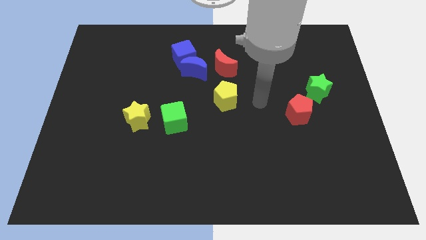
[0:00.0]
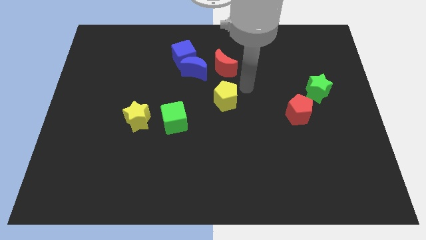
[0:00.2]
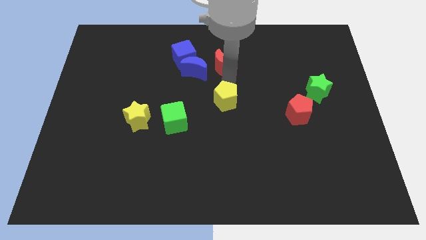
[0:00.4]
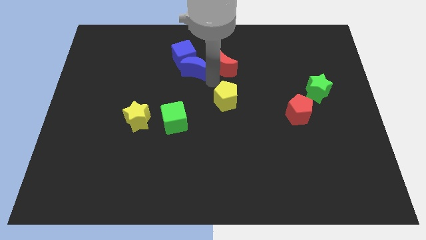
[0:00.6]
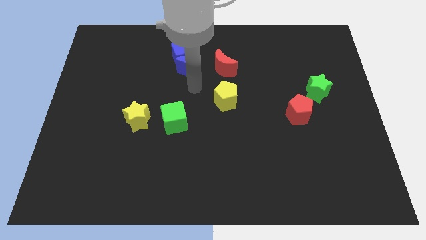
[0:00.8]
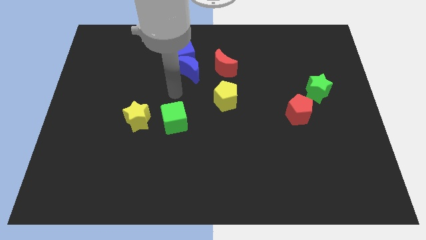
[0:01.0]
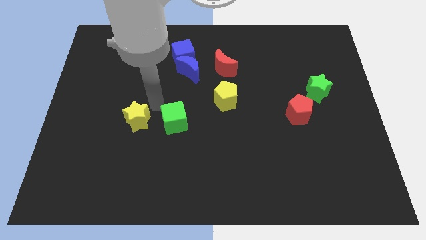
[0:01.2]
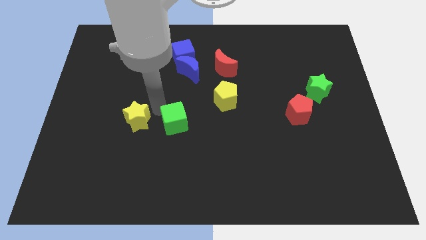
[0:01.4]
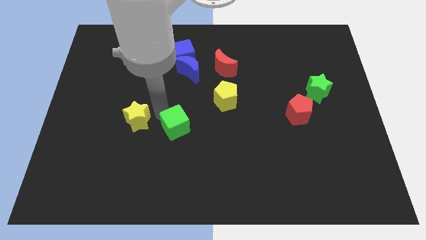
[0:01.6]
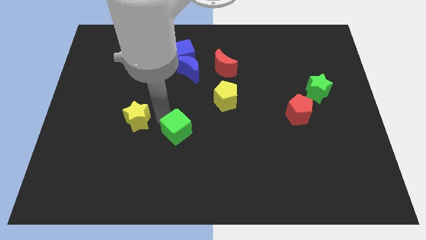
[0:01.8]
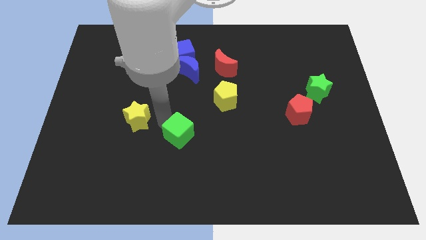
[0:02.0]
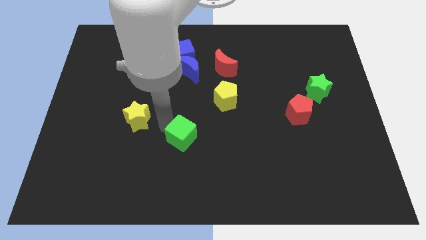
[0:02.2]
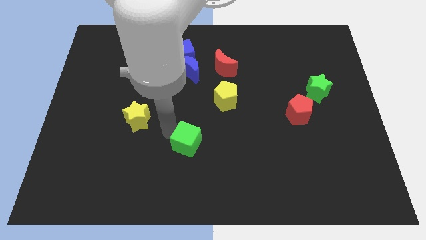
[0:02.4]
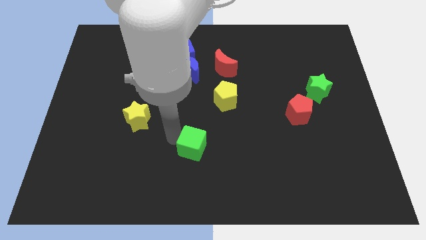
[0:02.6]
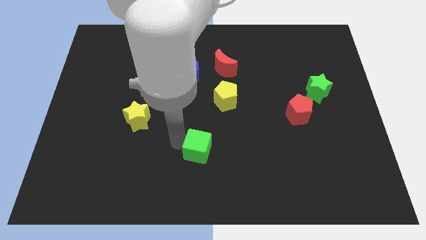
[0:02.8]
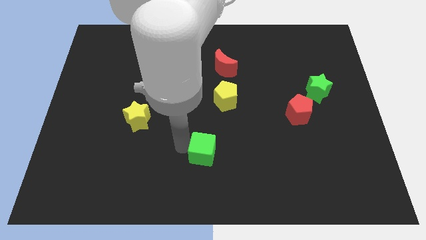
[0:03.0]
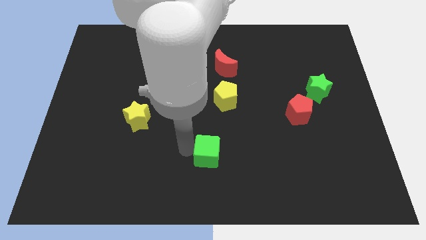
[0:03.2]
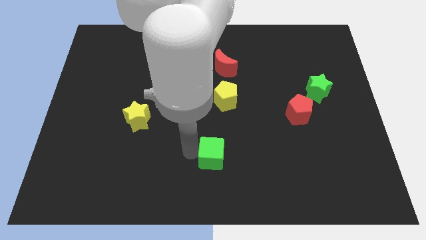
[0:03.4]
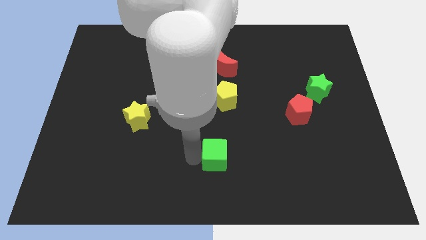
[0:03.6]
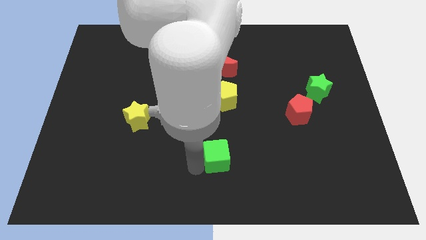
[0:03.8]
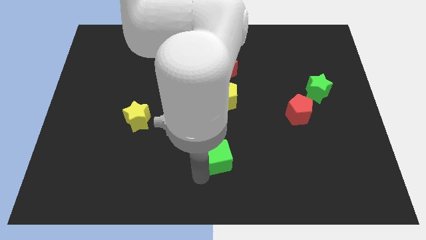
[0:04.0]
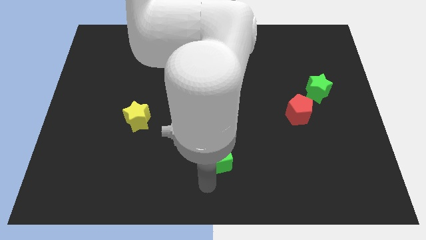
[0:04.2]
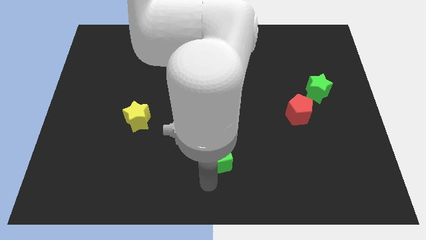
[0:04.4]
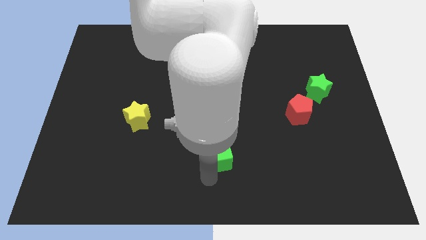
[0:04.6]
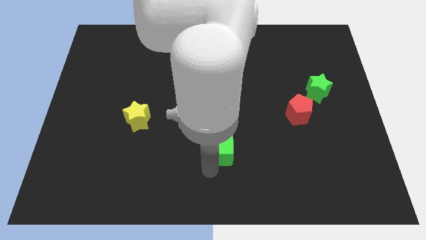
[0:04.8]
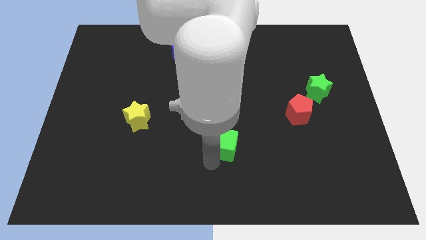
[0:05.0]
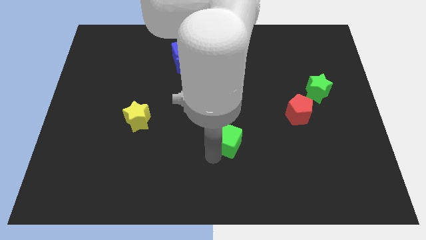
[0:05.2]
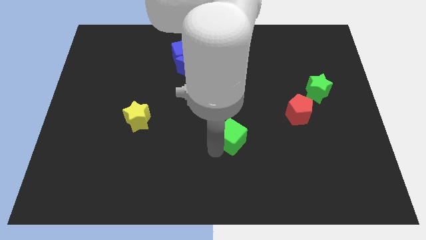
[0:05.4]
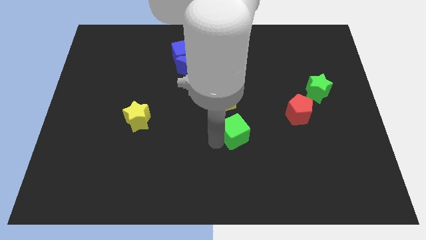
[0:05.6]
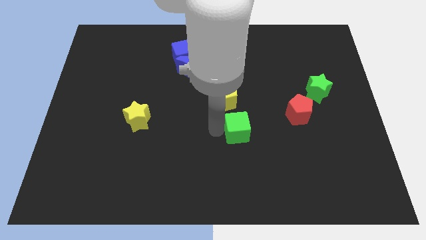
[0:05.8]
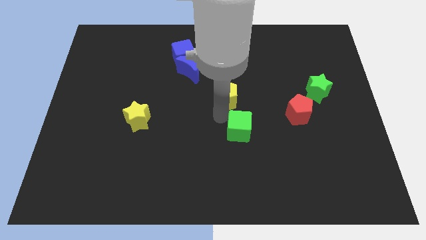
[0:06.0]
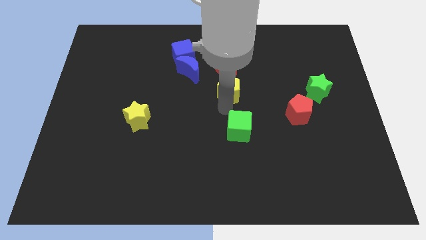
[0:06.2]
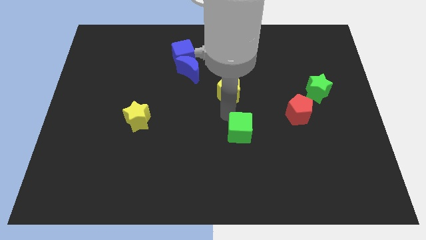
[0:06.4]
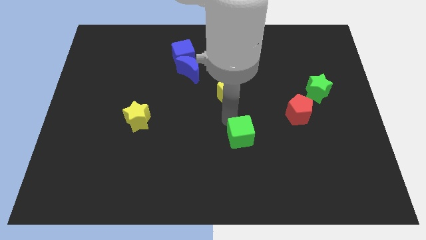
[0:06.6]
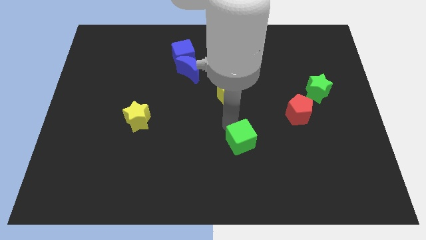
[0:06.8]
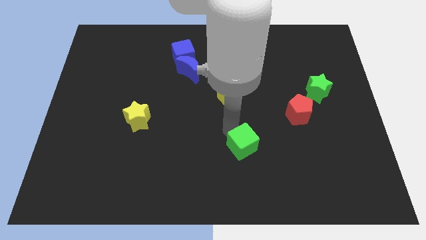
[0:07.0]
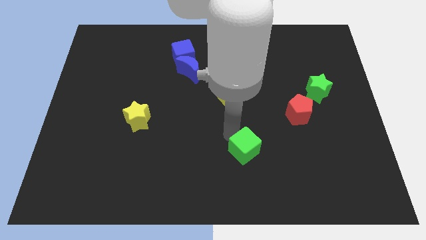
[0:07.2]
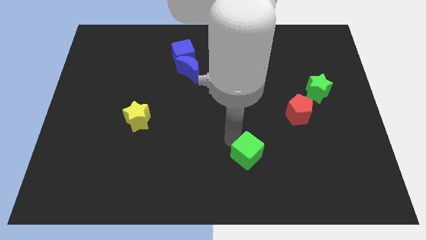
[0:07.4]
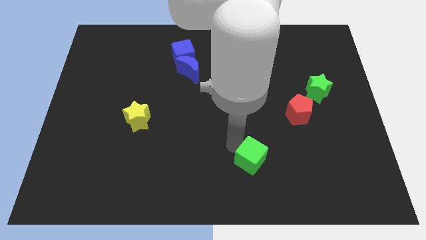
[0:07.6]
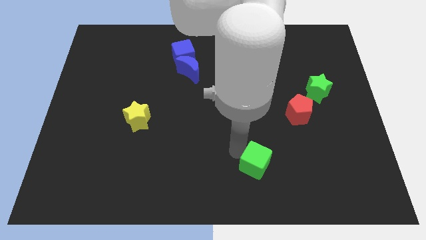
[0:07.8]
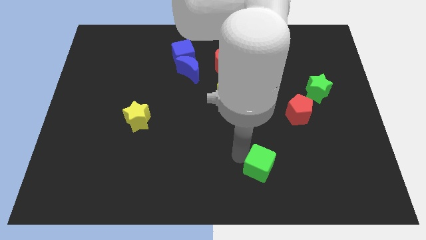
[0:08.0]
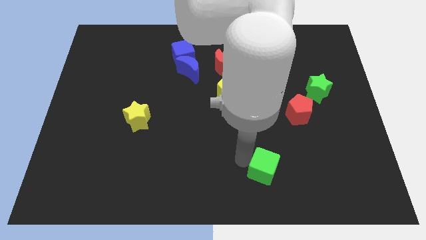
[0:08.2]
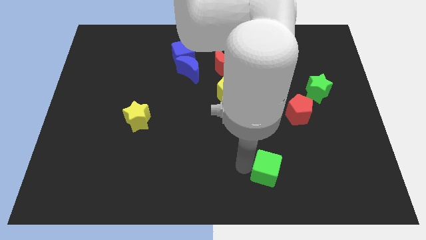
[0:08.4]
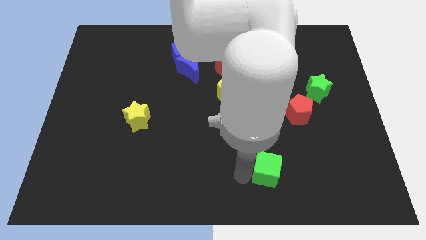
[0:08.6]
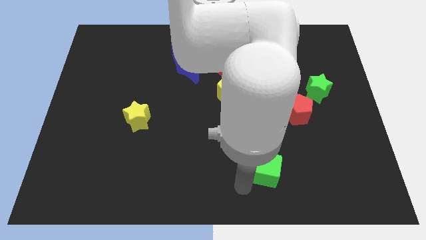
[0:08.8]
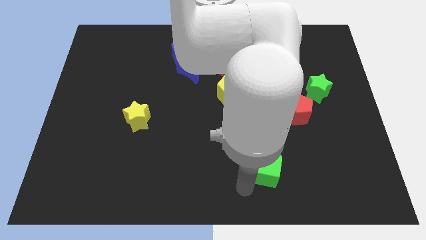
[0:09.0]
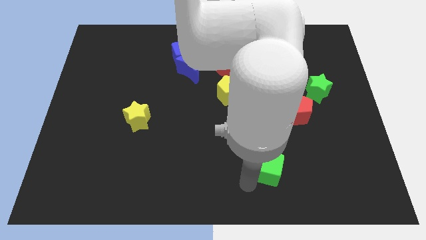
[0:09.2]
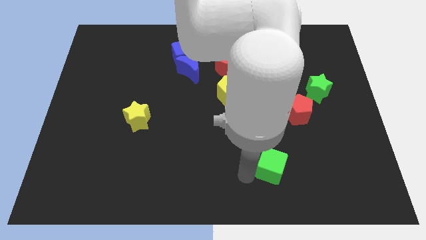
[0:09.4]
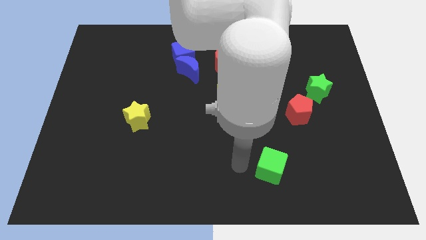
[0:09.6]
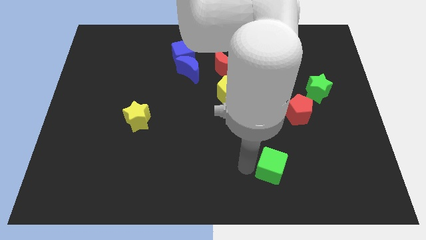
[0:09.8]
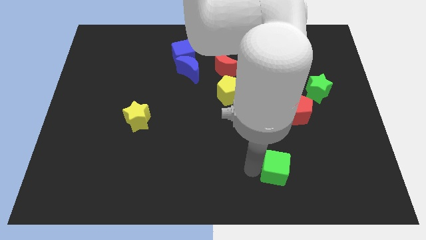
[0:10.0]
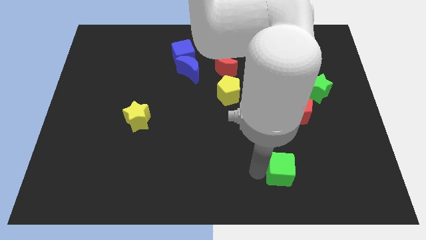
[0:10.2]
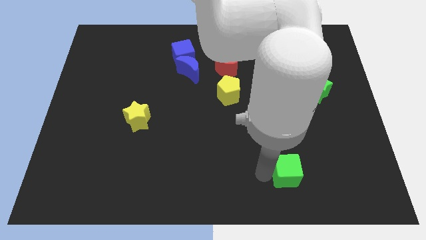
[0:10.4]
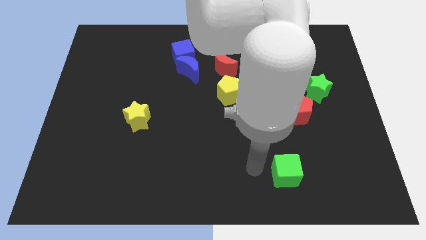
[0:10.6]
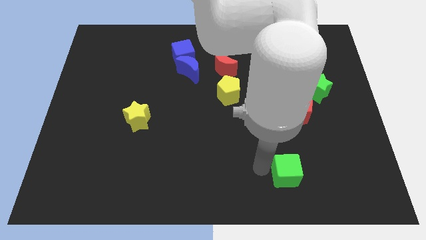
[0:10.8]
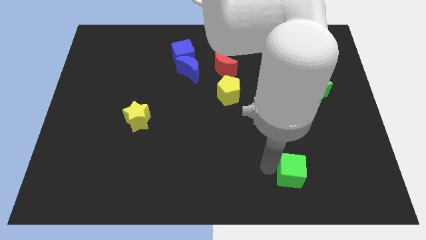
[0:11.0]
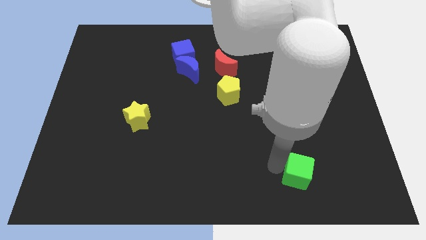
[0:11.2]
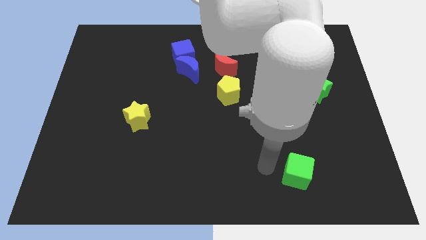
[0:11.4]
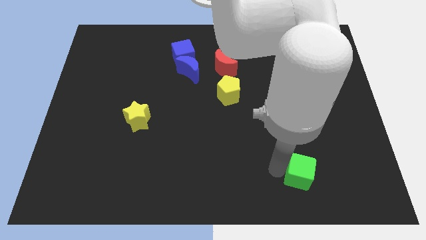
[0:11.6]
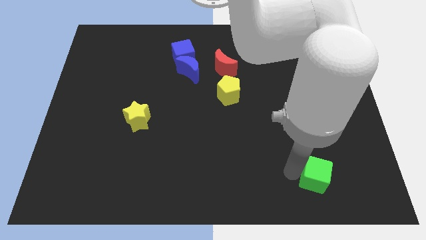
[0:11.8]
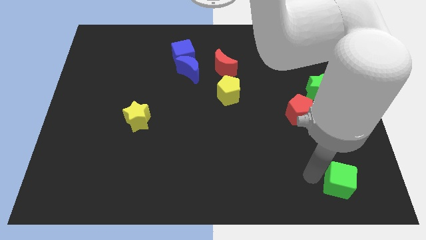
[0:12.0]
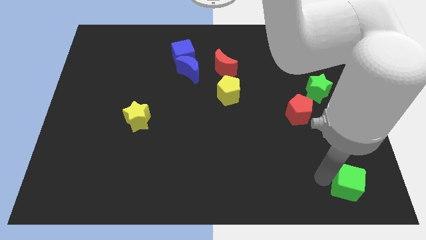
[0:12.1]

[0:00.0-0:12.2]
push the green cube to the lower right corner

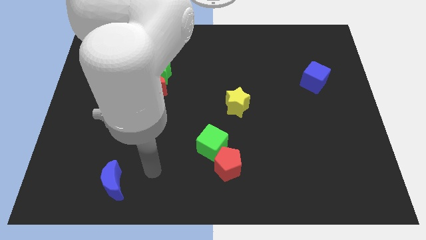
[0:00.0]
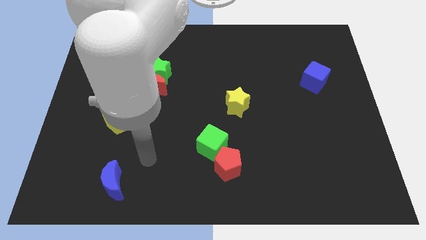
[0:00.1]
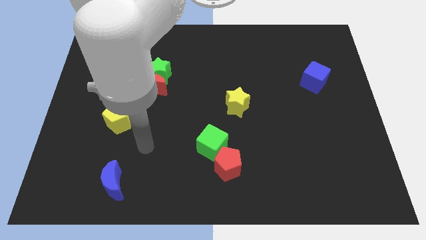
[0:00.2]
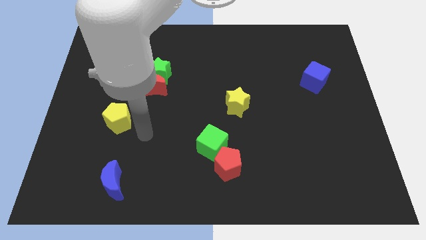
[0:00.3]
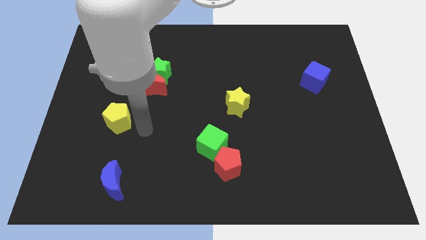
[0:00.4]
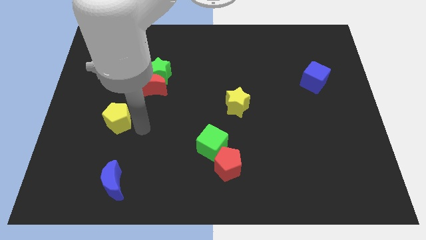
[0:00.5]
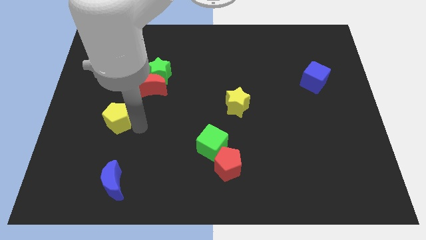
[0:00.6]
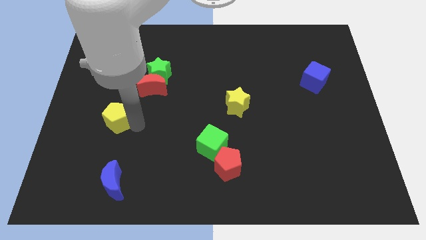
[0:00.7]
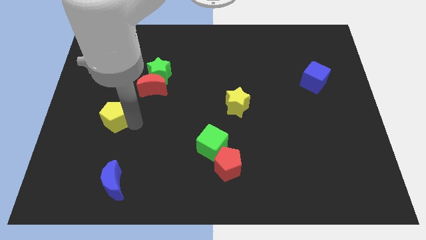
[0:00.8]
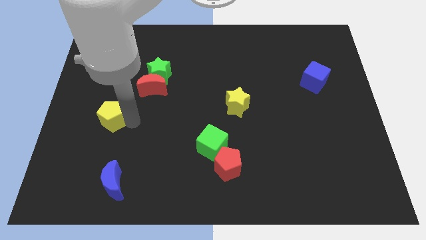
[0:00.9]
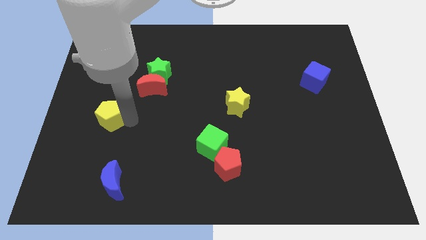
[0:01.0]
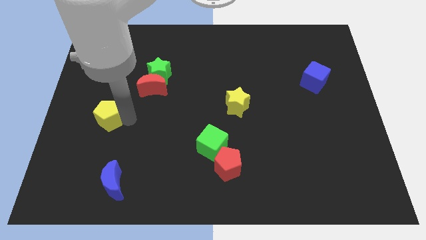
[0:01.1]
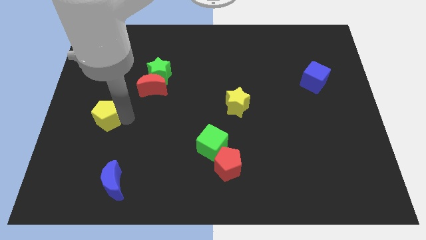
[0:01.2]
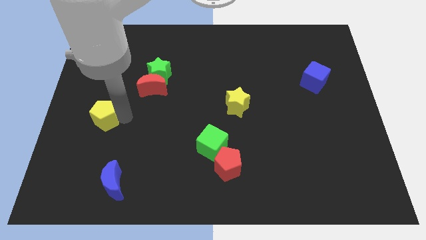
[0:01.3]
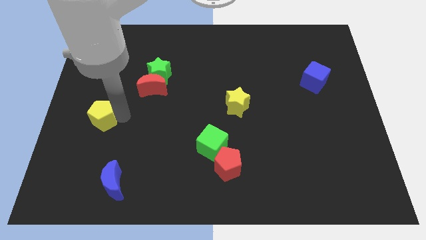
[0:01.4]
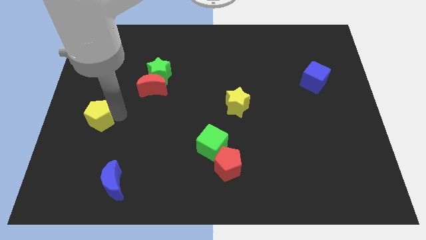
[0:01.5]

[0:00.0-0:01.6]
push the yellow pentagon to the left side of the board
